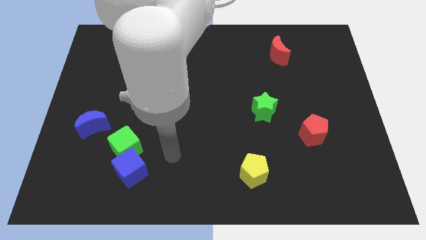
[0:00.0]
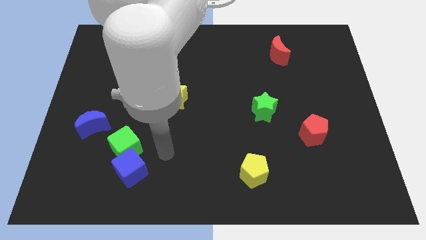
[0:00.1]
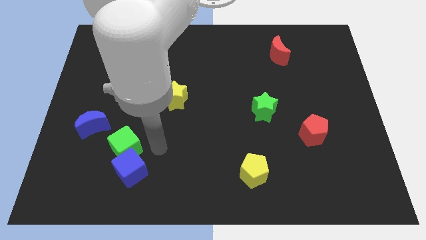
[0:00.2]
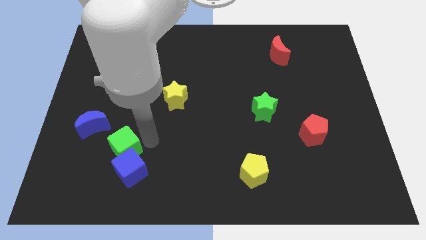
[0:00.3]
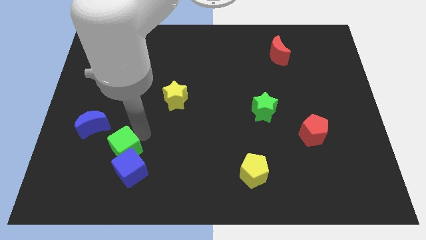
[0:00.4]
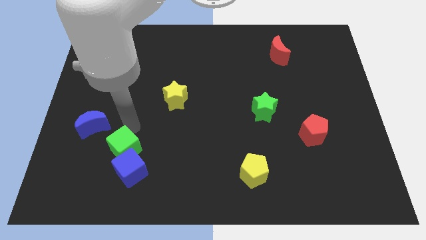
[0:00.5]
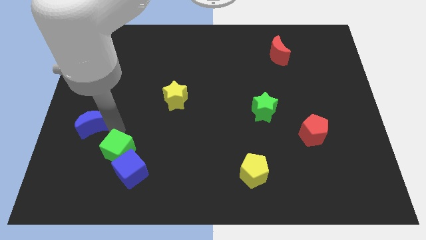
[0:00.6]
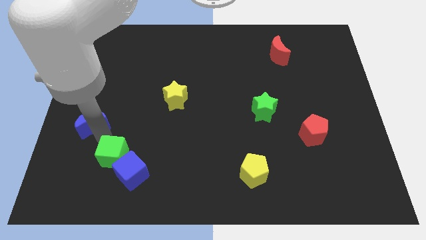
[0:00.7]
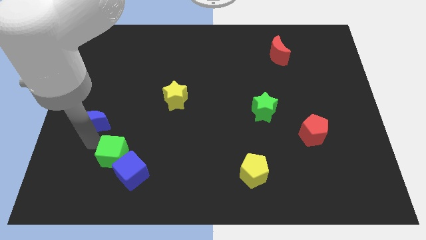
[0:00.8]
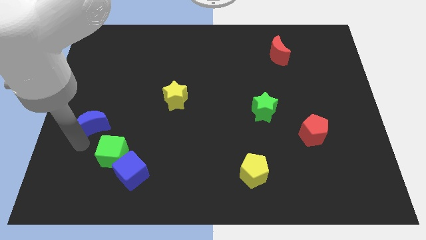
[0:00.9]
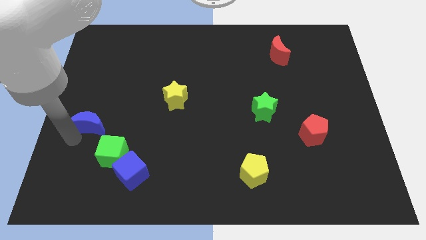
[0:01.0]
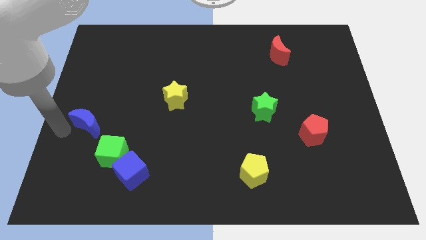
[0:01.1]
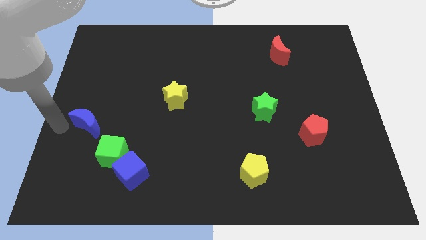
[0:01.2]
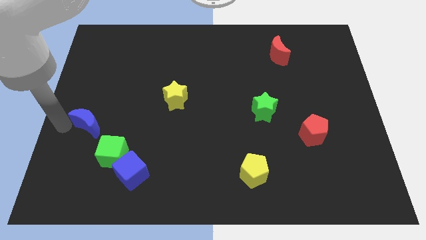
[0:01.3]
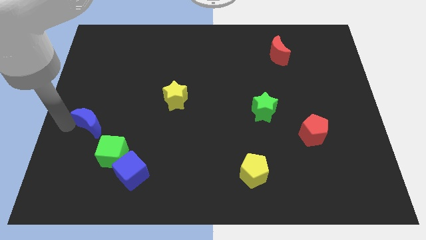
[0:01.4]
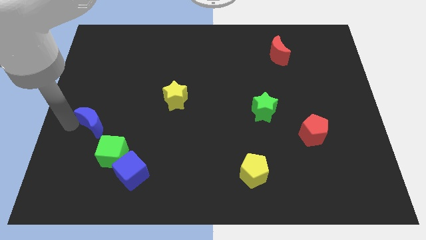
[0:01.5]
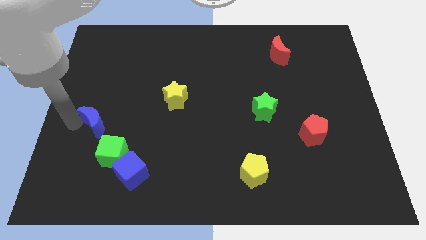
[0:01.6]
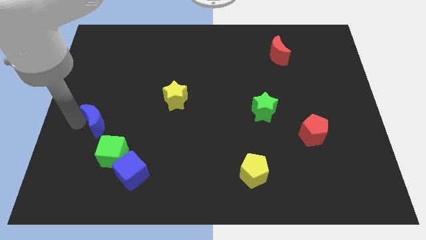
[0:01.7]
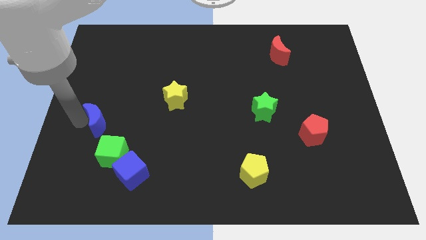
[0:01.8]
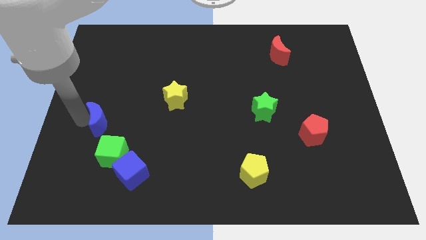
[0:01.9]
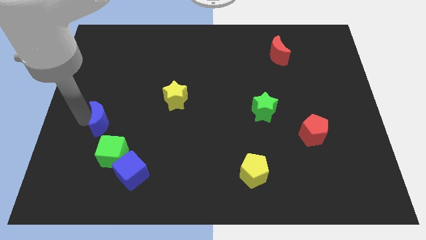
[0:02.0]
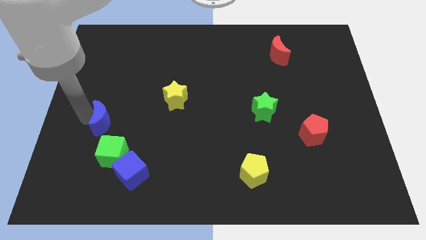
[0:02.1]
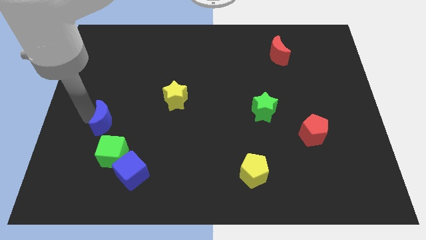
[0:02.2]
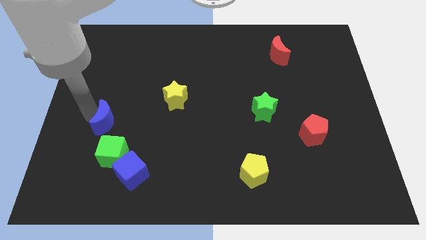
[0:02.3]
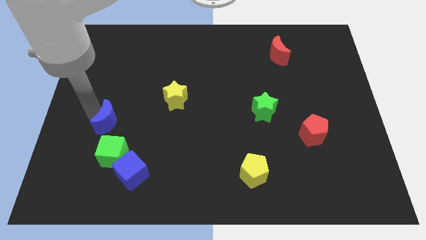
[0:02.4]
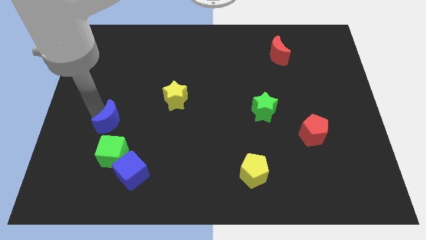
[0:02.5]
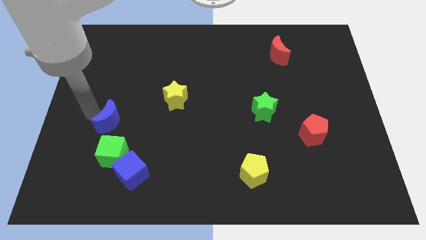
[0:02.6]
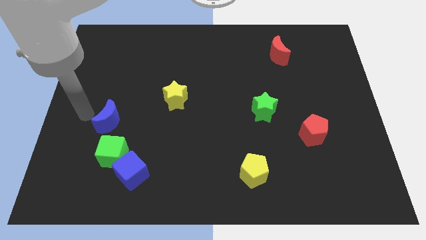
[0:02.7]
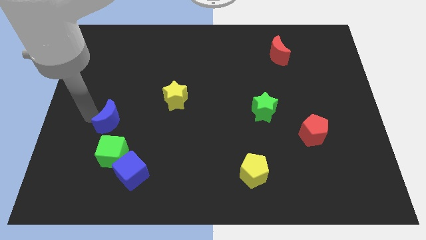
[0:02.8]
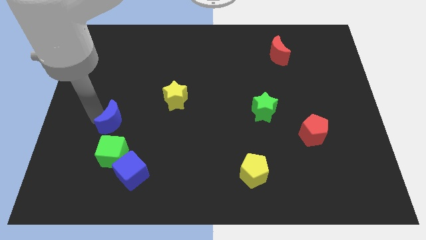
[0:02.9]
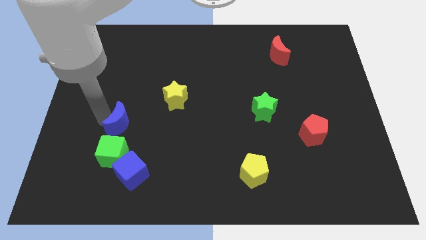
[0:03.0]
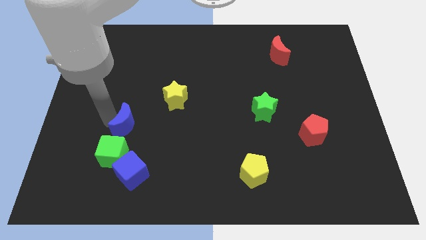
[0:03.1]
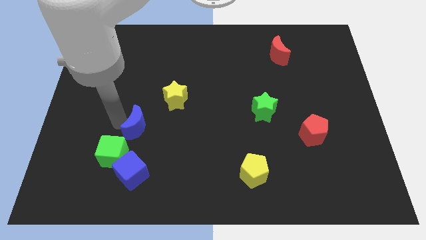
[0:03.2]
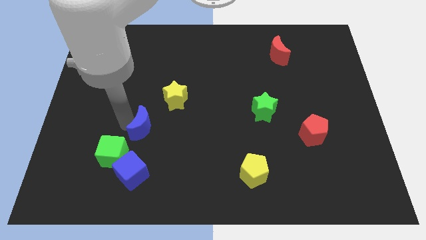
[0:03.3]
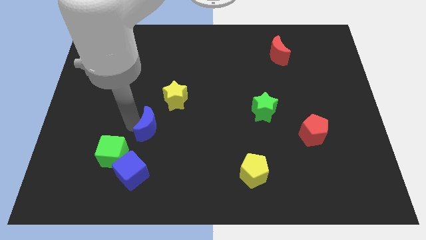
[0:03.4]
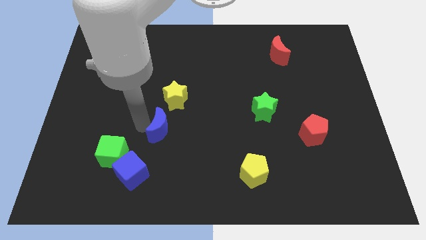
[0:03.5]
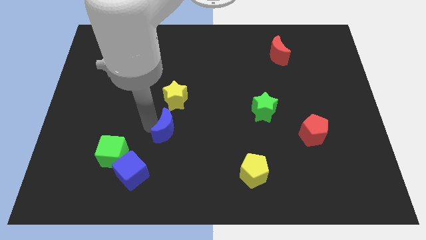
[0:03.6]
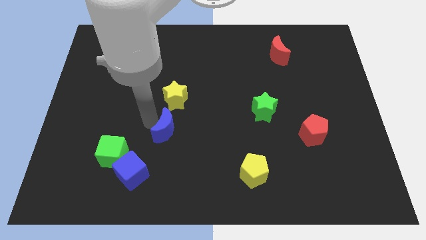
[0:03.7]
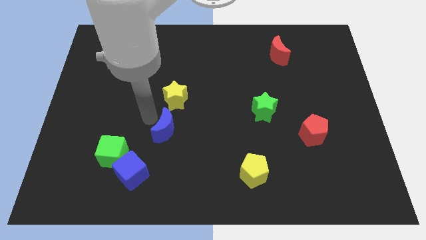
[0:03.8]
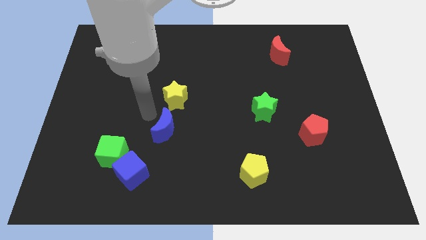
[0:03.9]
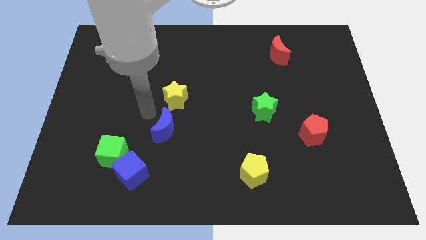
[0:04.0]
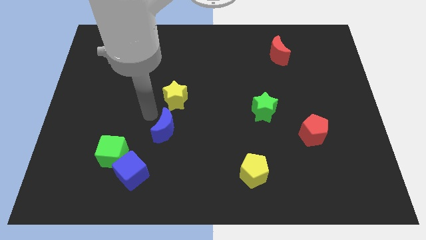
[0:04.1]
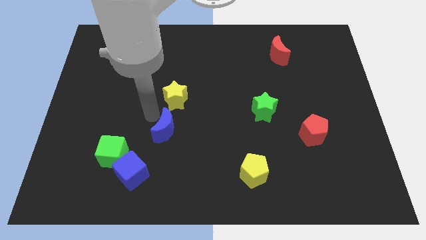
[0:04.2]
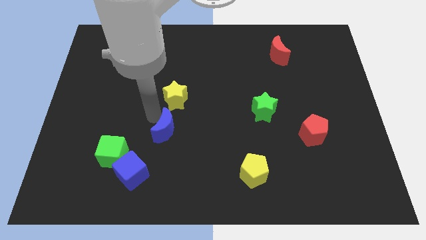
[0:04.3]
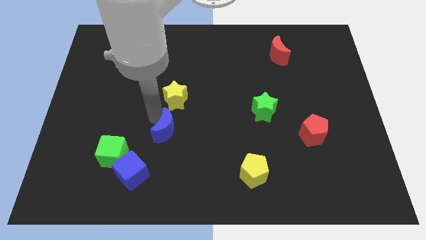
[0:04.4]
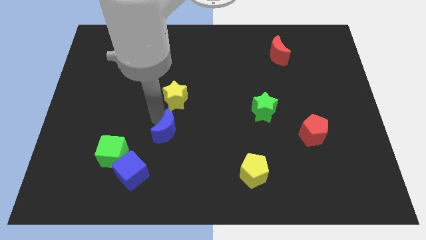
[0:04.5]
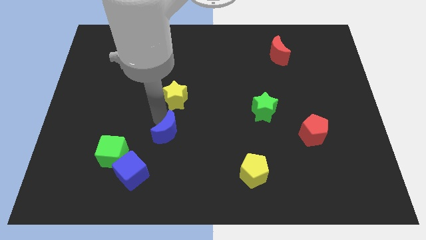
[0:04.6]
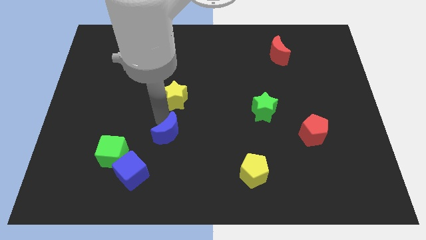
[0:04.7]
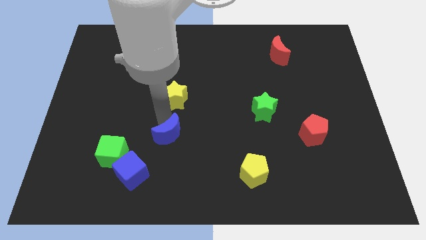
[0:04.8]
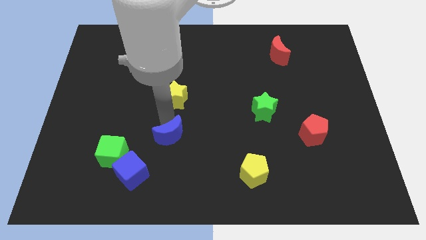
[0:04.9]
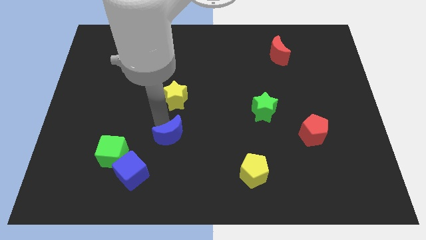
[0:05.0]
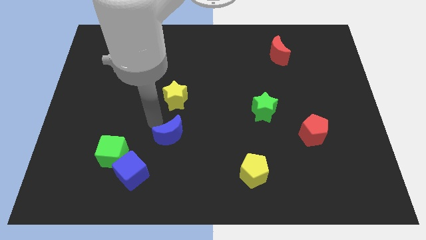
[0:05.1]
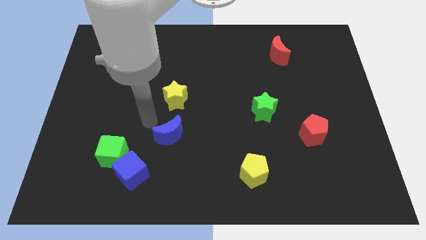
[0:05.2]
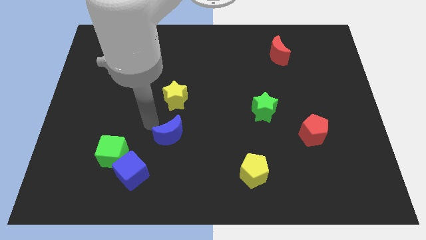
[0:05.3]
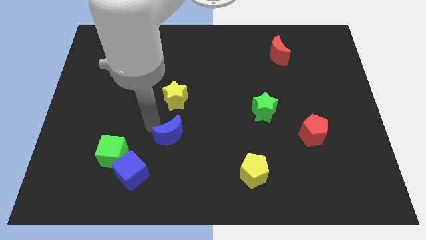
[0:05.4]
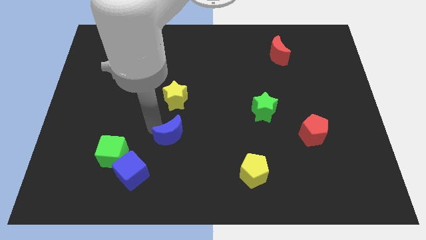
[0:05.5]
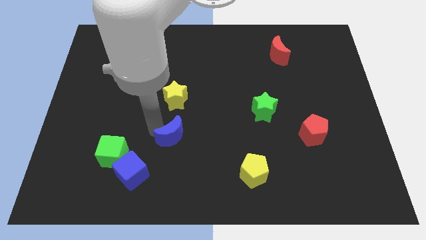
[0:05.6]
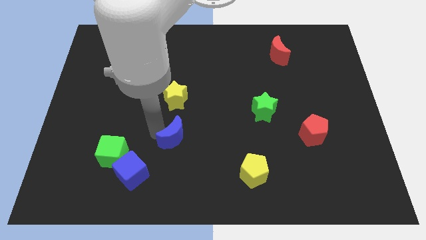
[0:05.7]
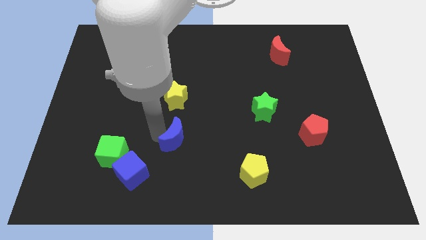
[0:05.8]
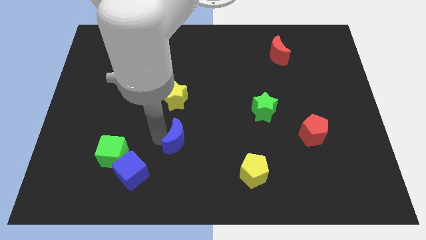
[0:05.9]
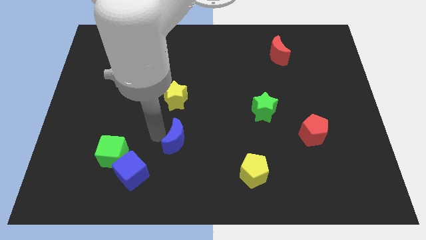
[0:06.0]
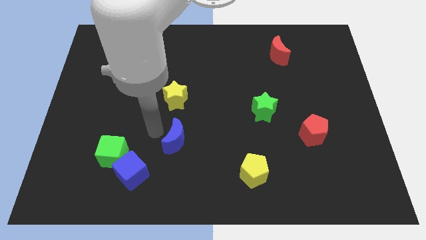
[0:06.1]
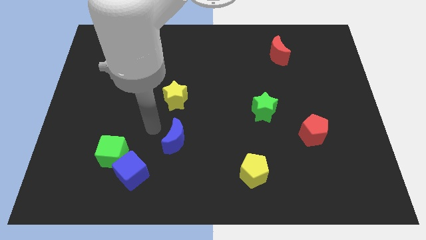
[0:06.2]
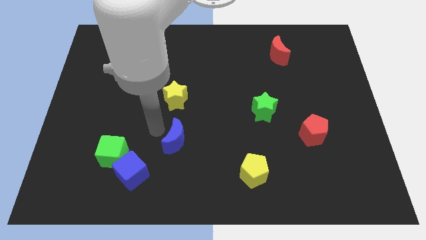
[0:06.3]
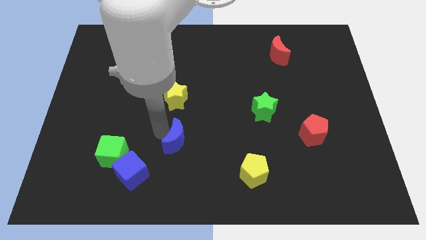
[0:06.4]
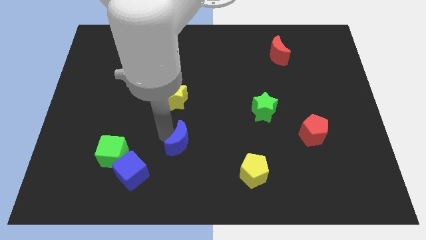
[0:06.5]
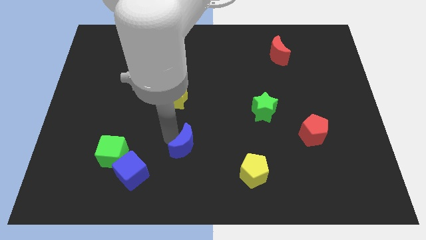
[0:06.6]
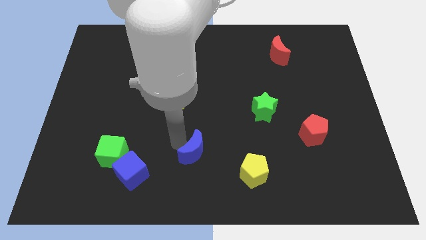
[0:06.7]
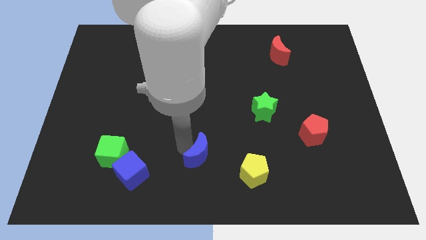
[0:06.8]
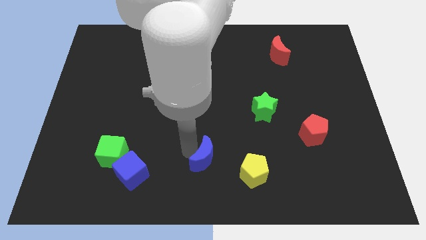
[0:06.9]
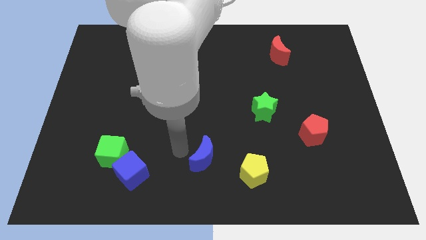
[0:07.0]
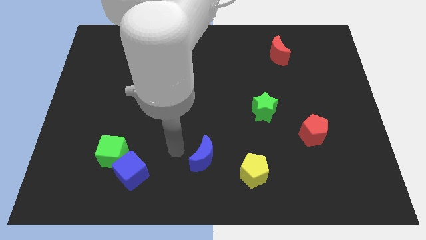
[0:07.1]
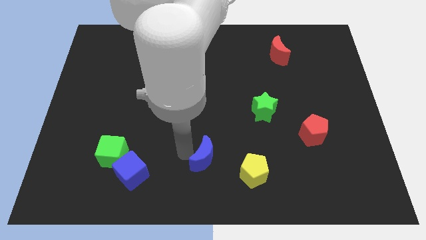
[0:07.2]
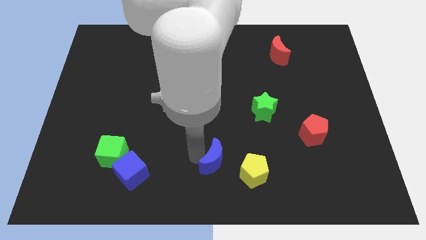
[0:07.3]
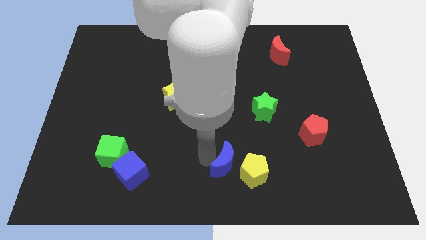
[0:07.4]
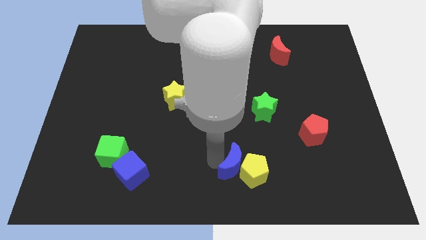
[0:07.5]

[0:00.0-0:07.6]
slide the blue moon next to the yellow pentagon

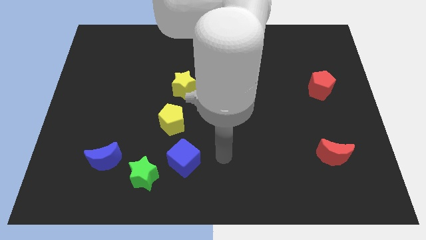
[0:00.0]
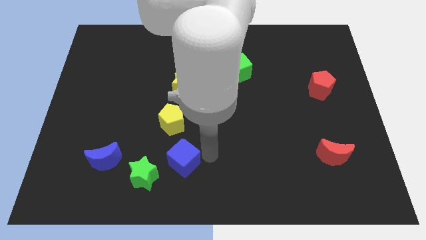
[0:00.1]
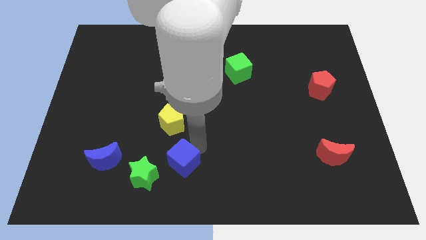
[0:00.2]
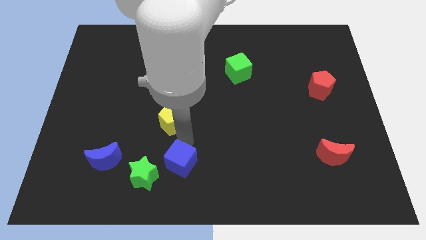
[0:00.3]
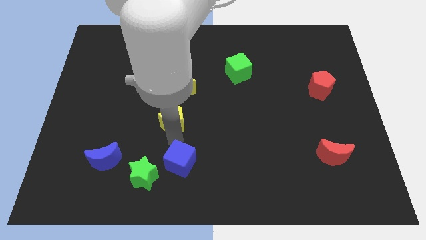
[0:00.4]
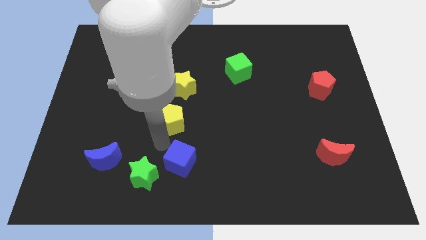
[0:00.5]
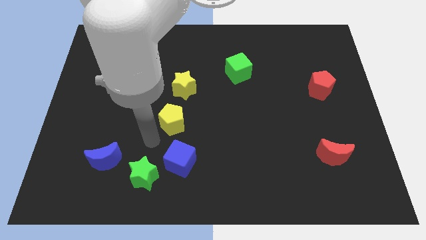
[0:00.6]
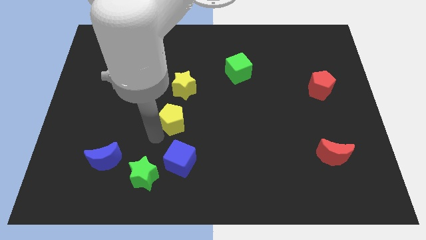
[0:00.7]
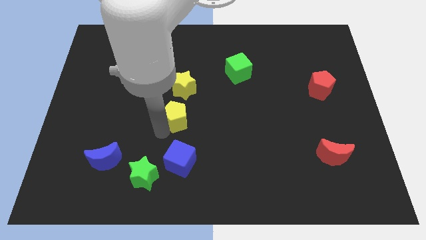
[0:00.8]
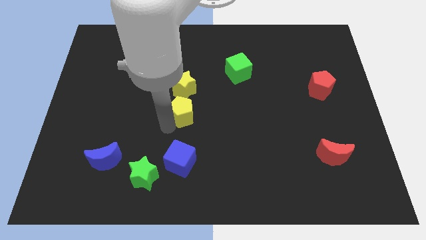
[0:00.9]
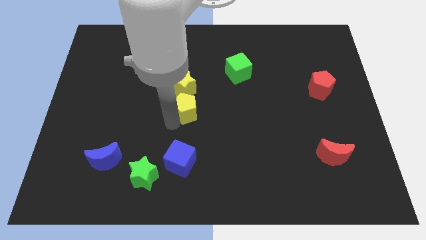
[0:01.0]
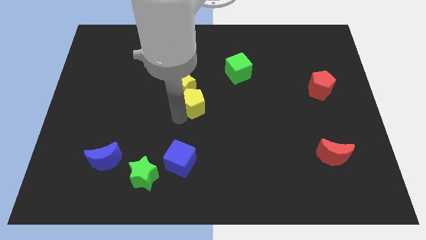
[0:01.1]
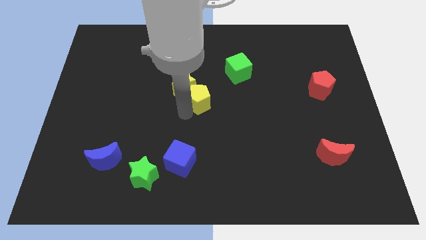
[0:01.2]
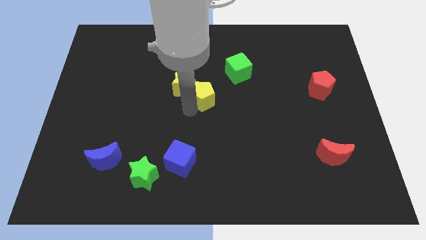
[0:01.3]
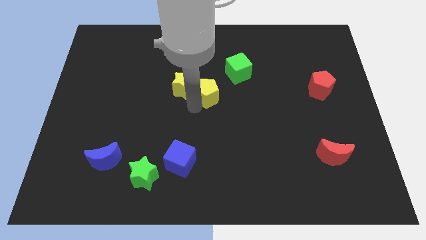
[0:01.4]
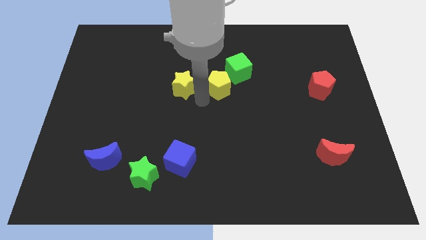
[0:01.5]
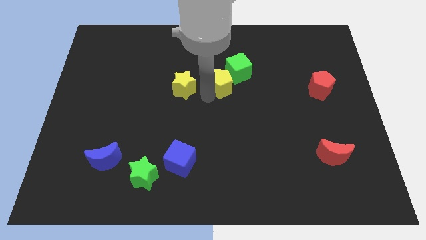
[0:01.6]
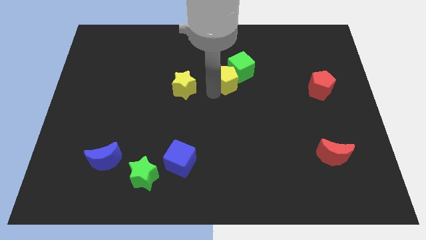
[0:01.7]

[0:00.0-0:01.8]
push the yellow pentagon towards the green cube
